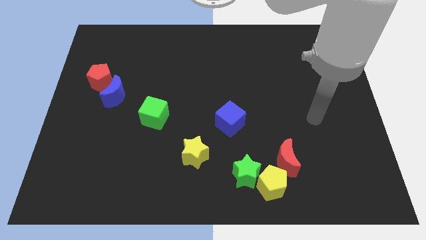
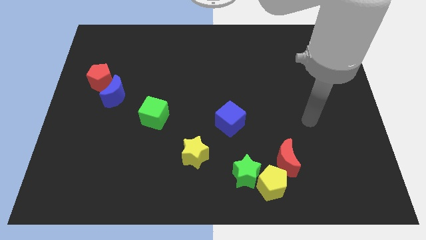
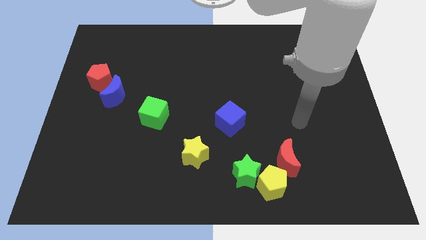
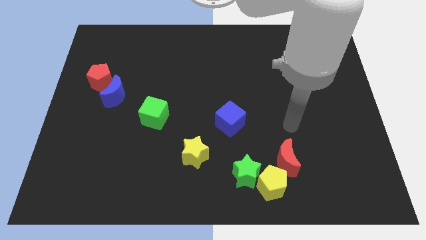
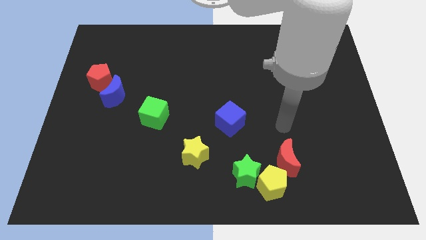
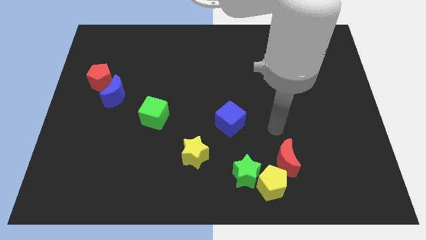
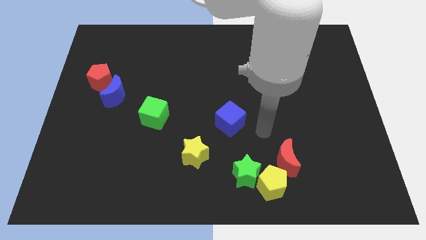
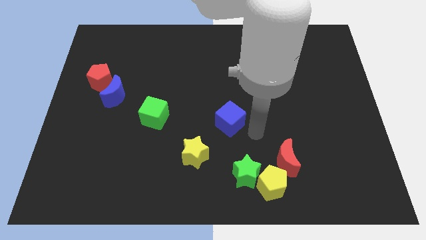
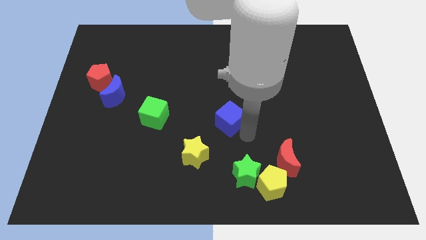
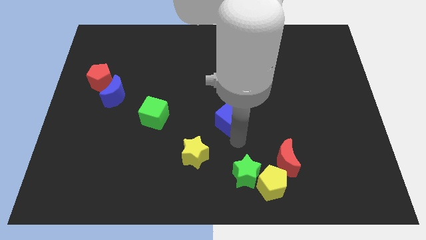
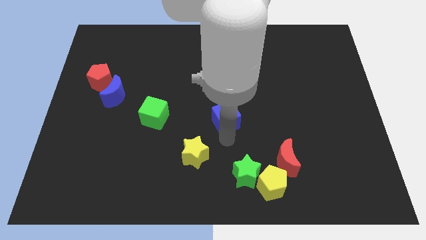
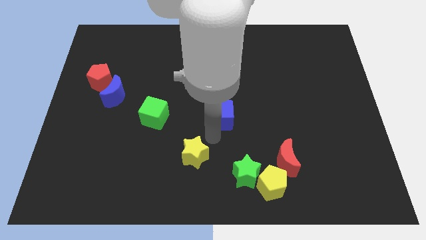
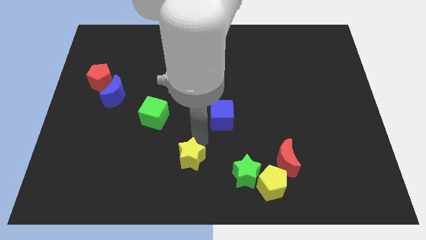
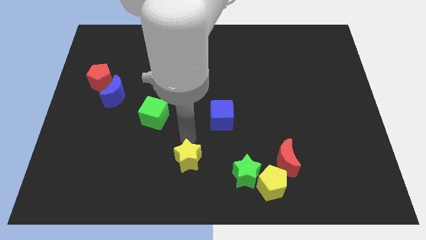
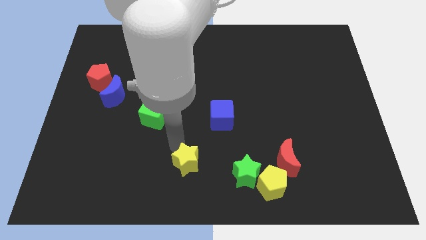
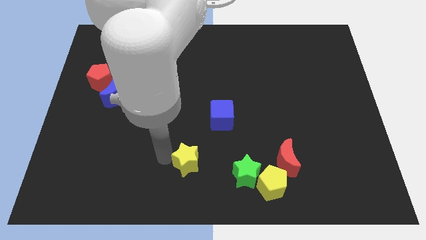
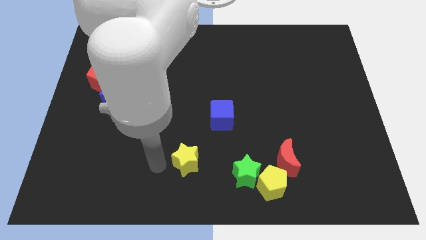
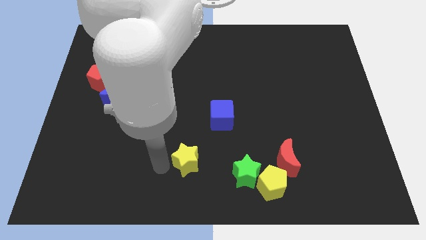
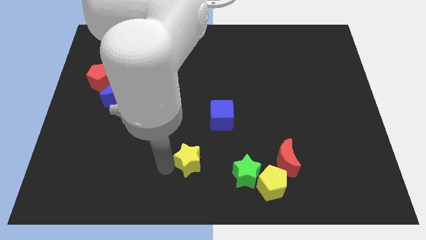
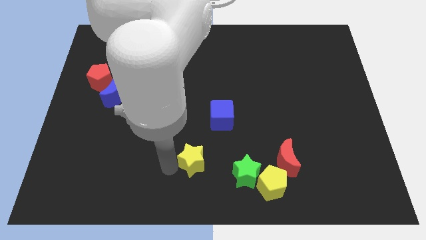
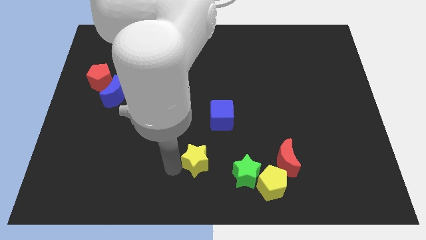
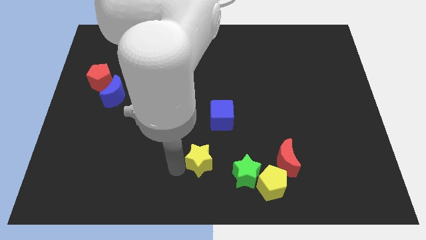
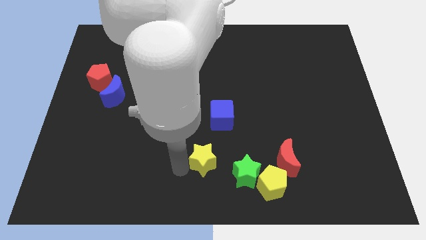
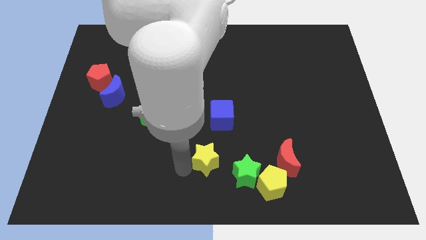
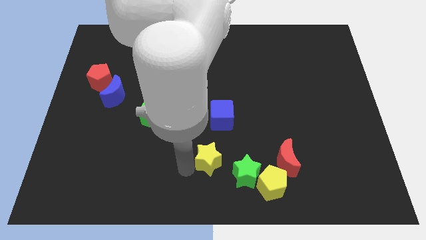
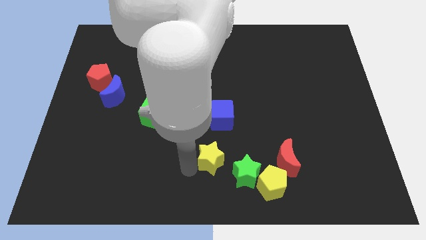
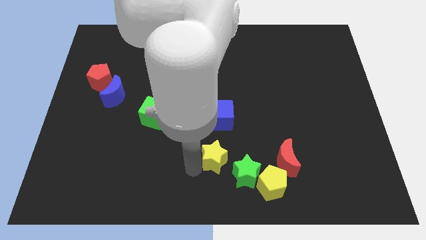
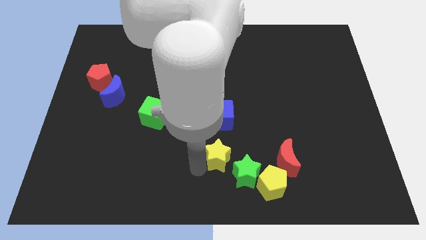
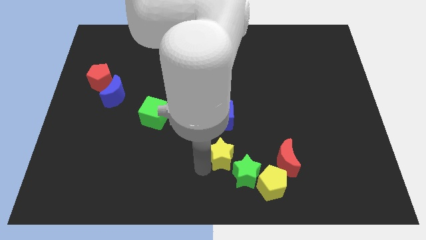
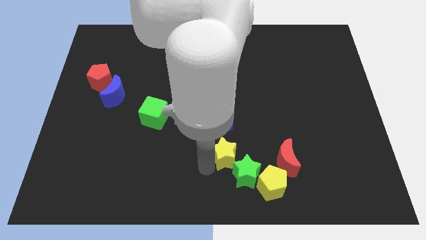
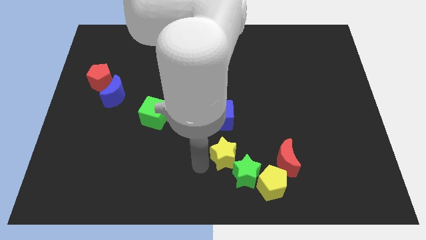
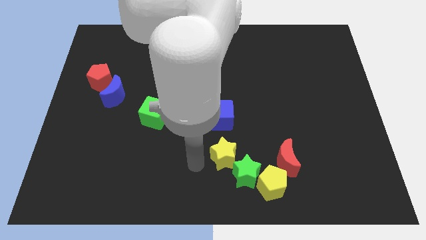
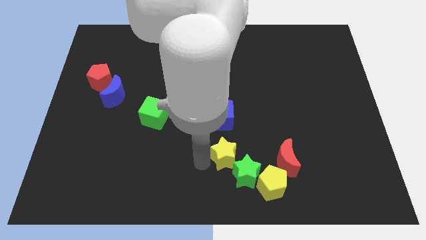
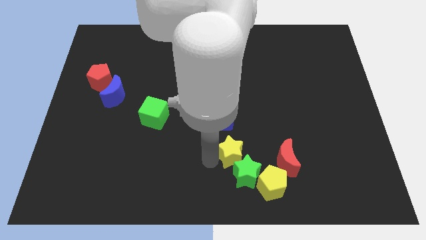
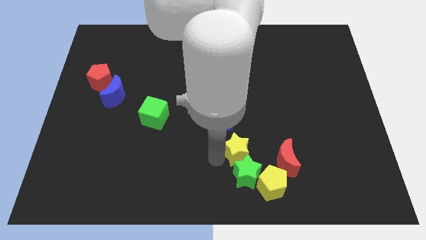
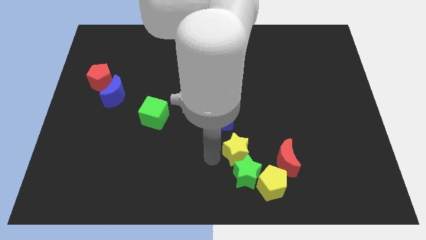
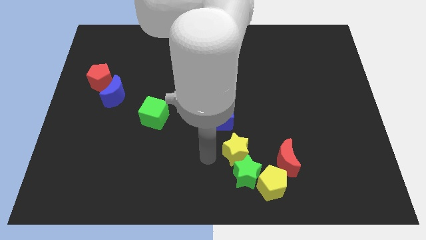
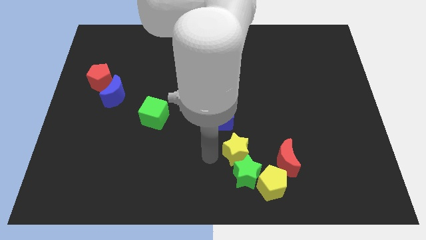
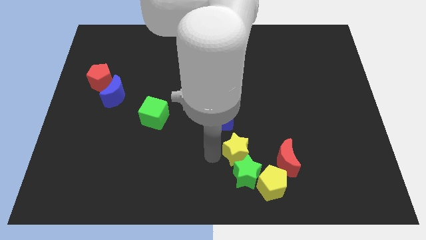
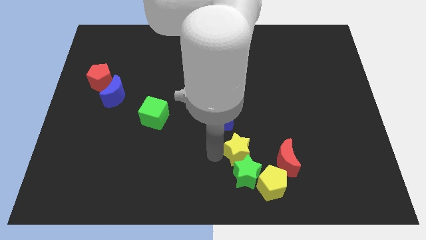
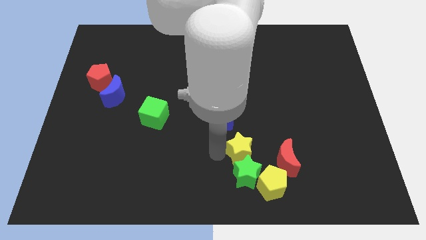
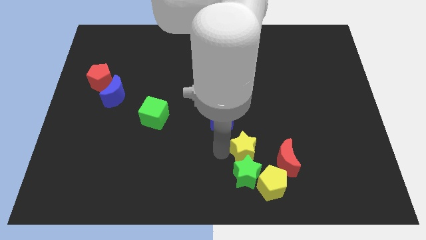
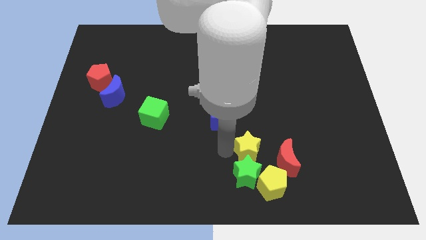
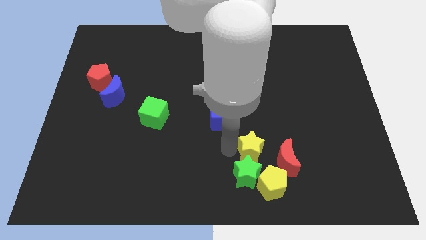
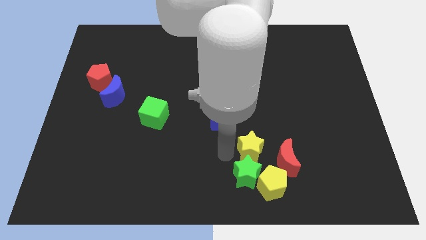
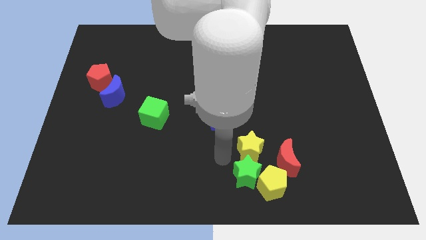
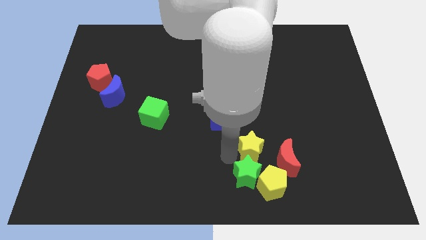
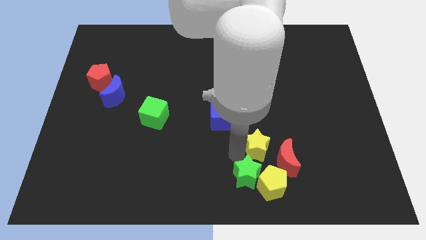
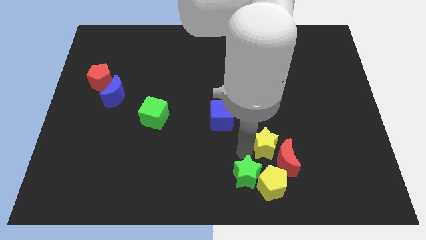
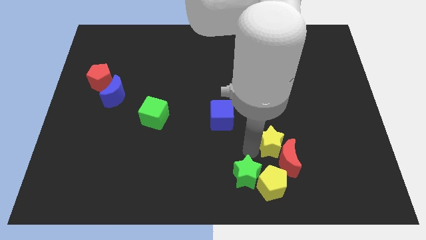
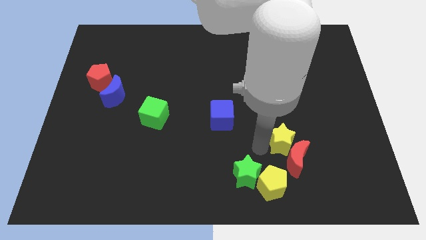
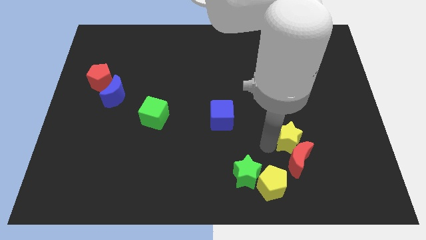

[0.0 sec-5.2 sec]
move the yellow star to the top right side of the red moon

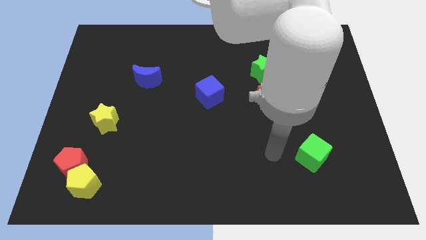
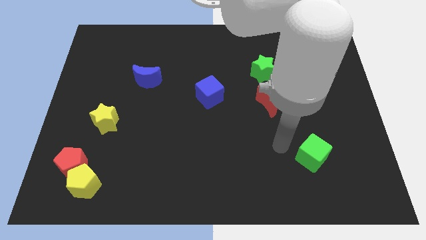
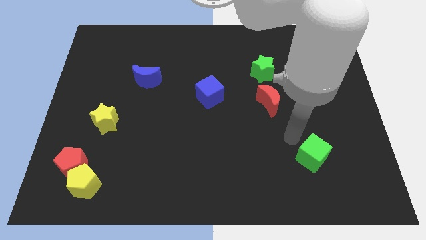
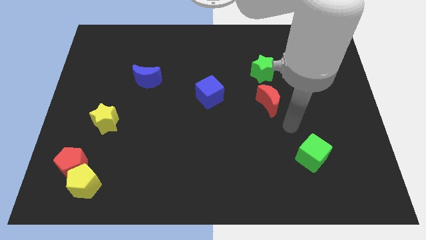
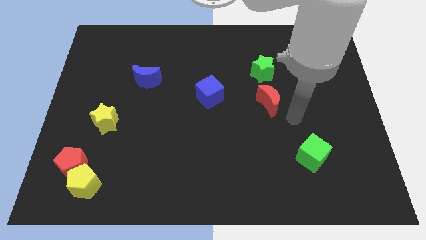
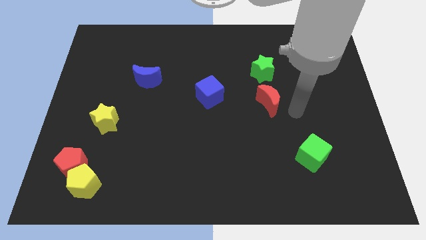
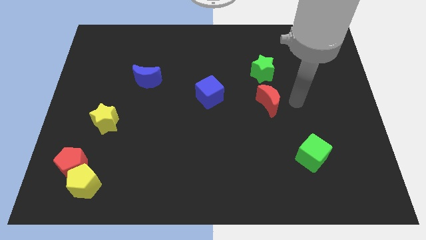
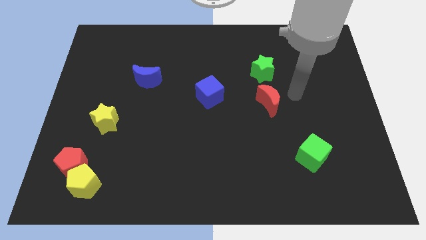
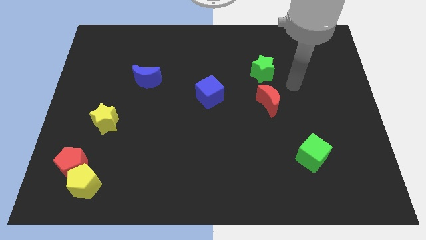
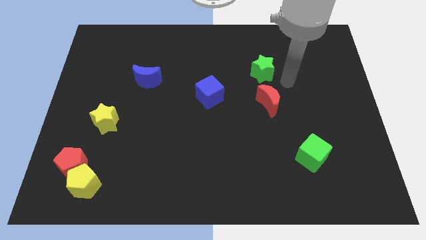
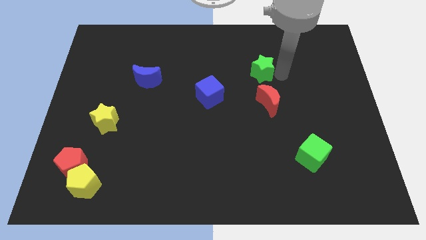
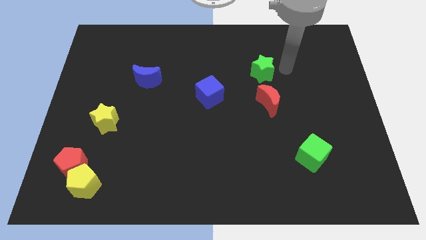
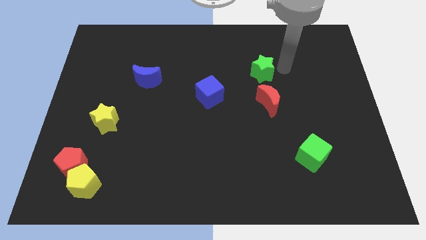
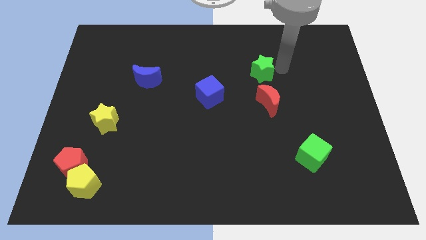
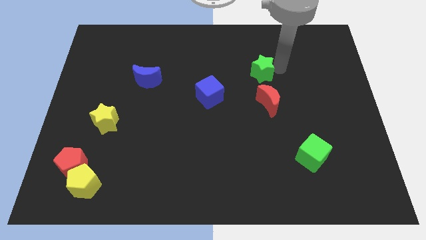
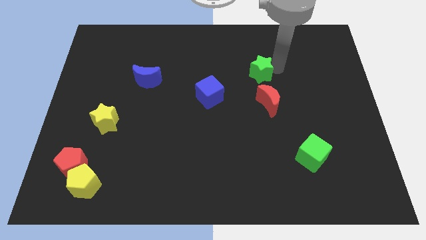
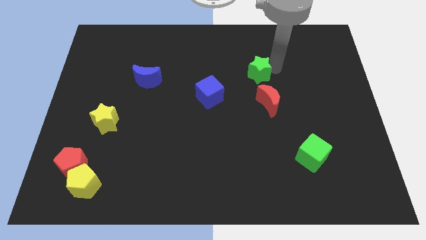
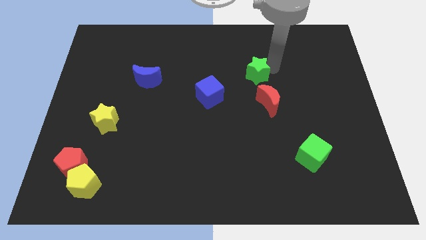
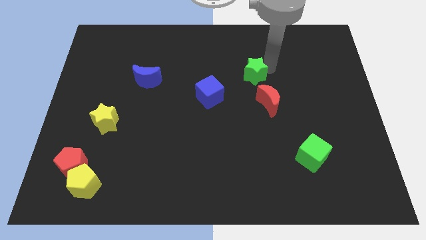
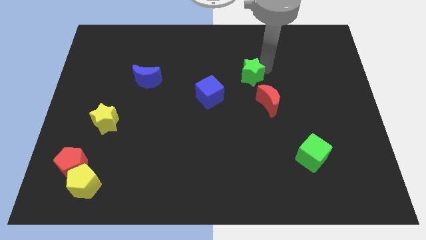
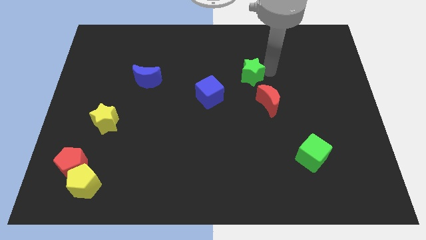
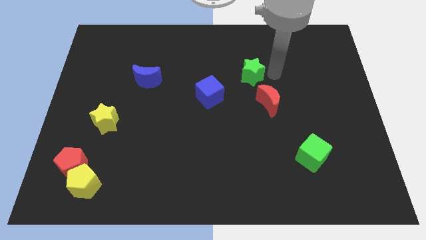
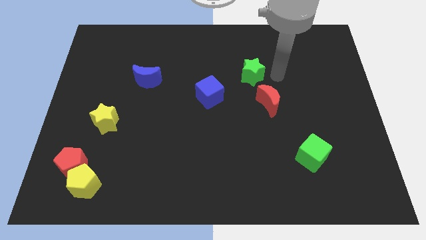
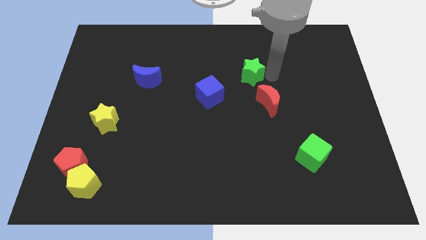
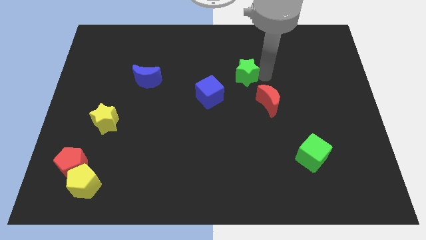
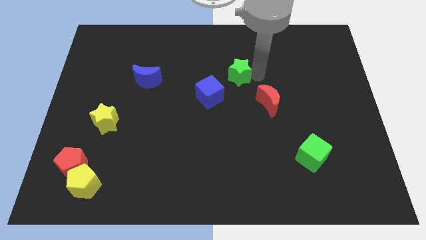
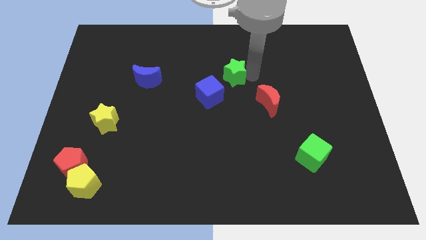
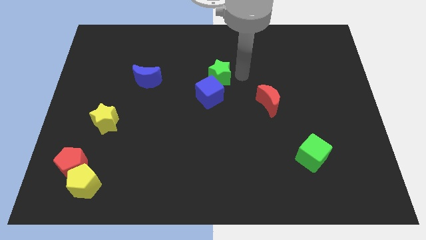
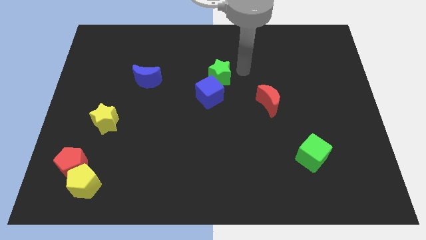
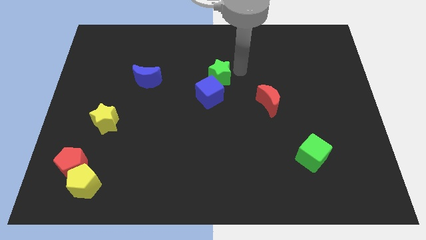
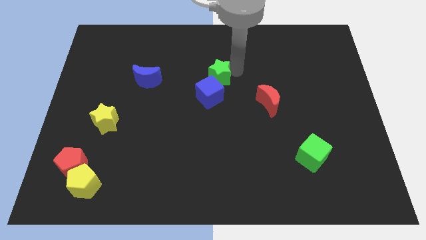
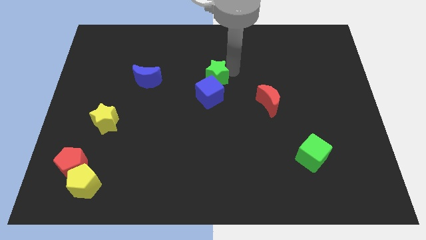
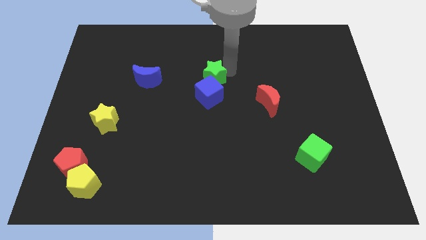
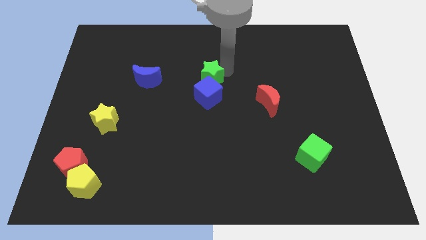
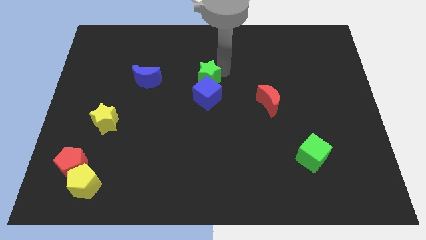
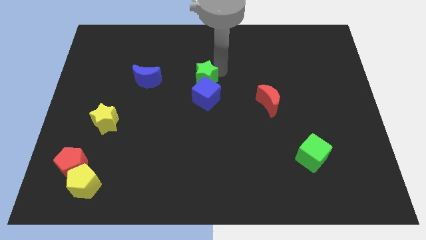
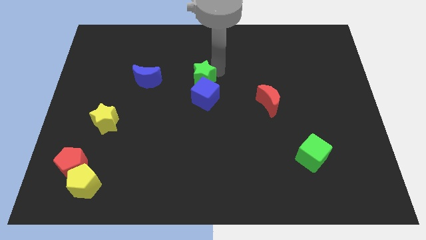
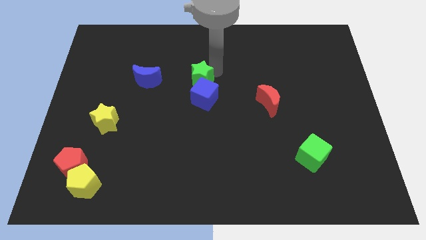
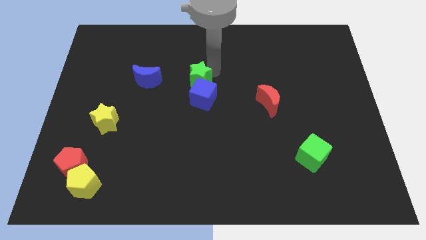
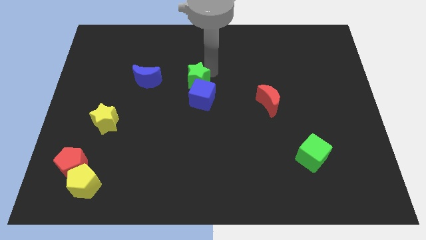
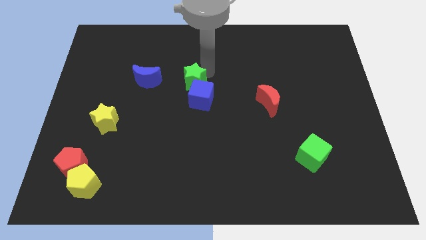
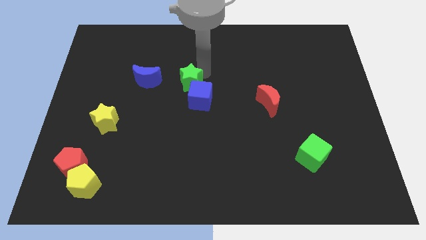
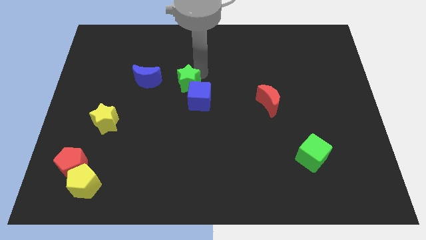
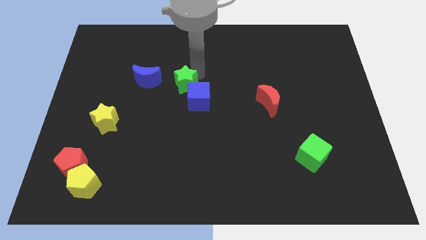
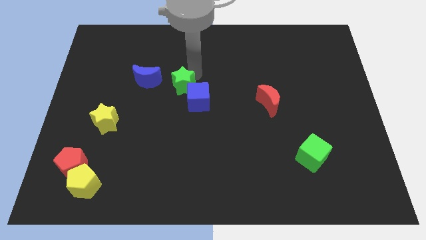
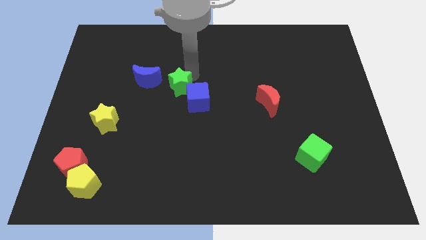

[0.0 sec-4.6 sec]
put the green star to the bottom right side of the blue moon
